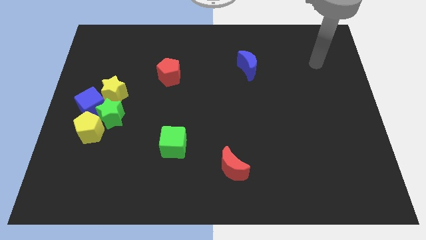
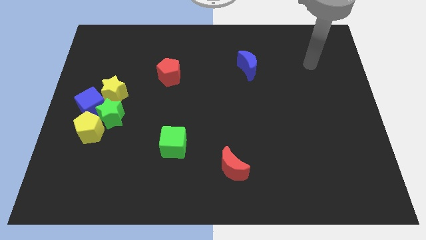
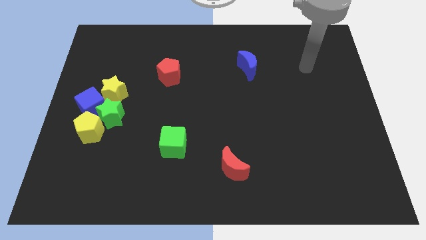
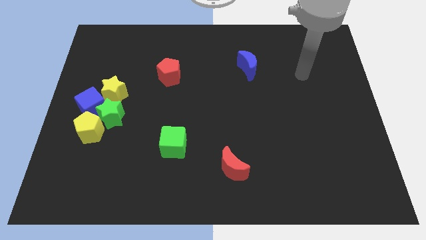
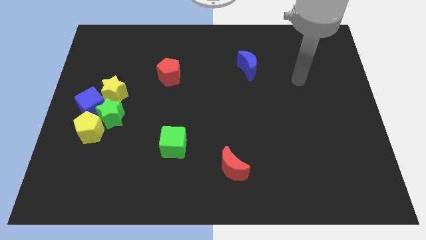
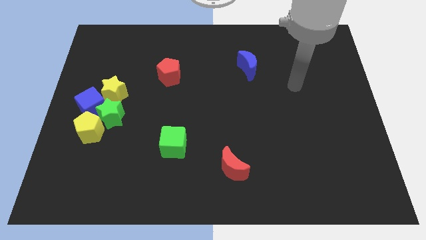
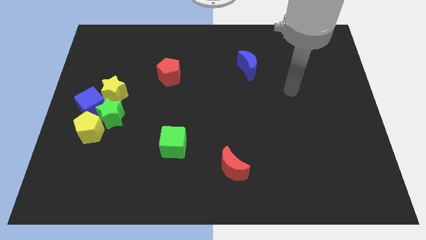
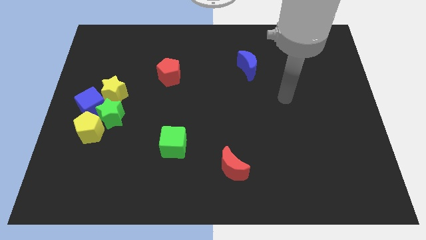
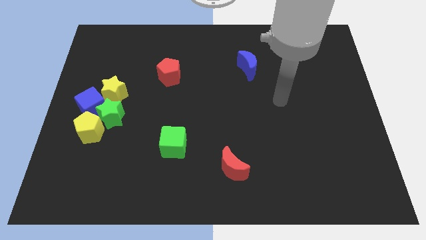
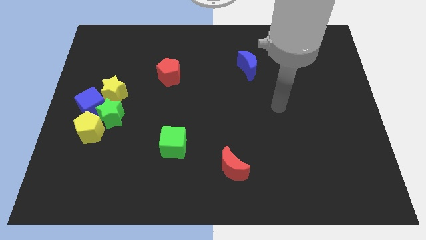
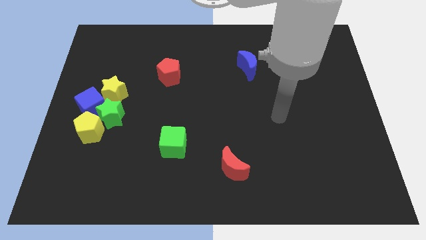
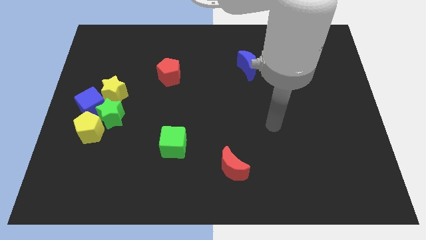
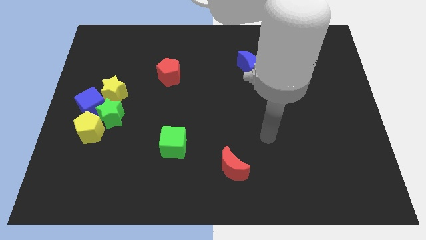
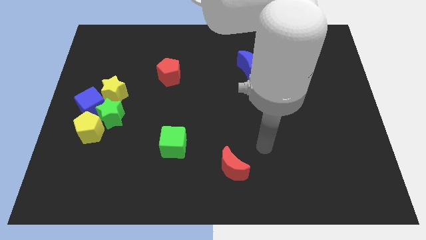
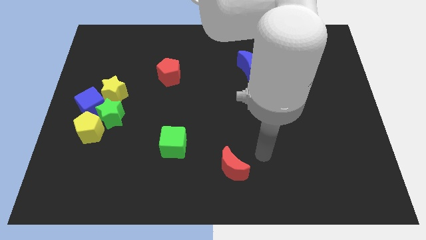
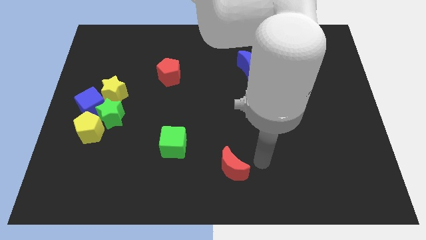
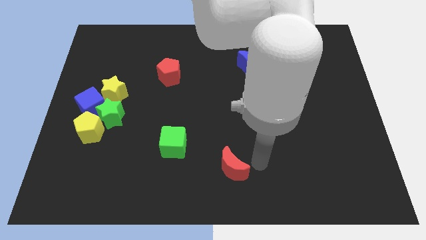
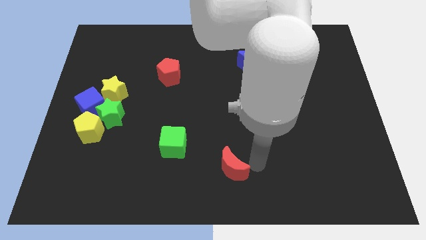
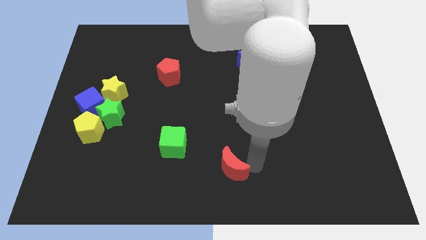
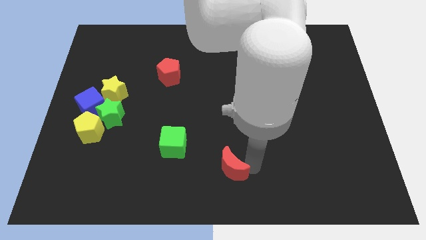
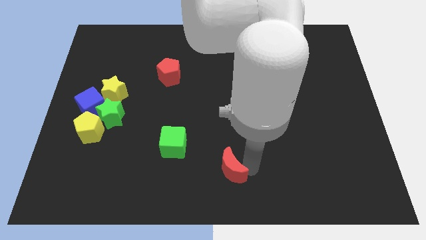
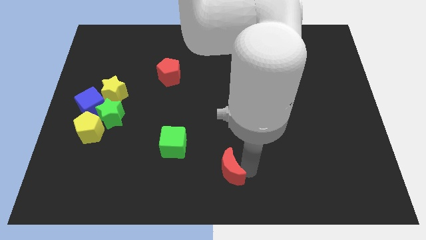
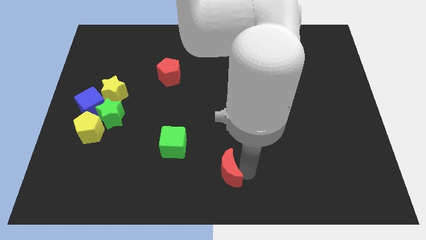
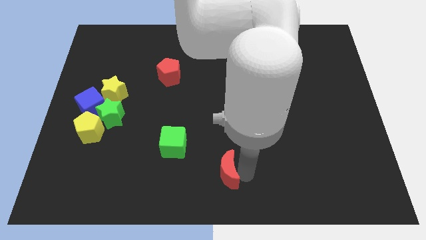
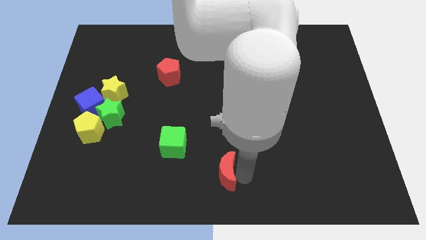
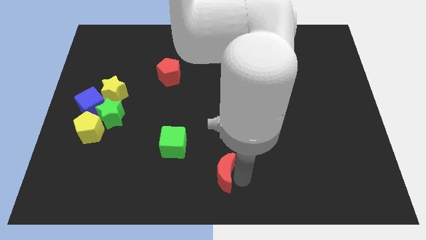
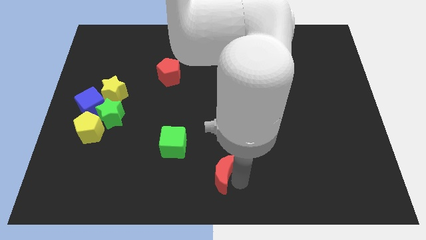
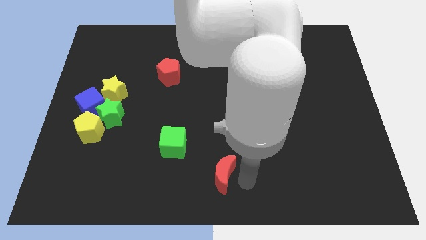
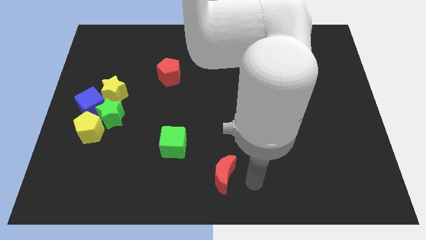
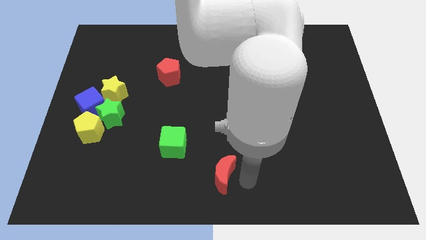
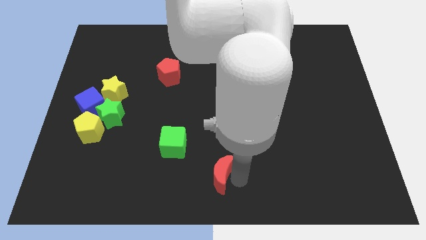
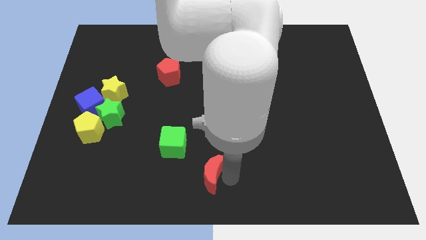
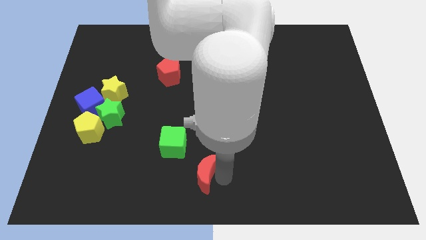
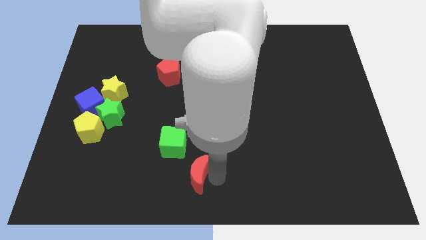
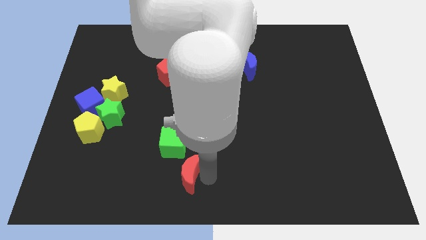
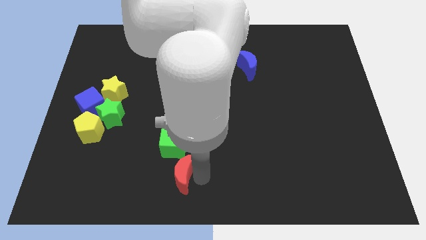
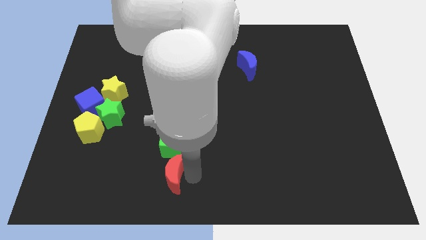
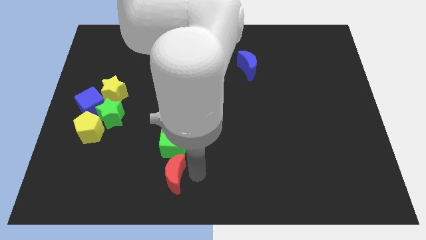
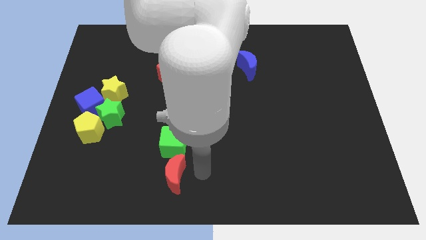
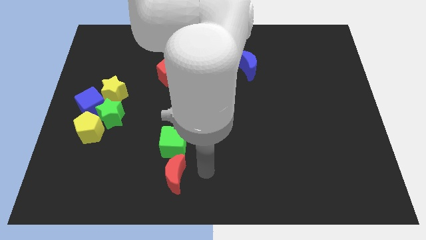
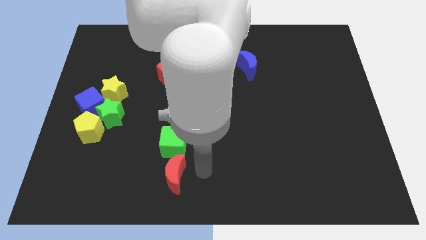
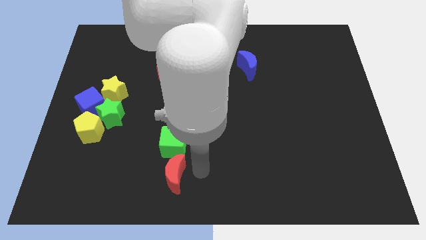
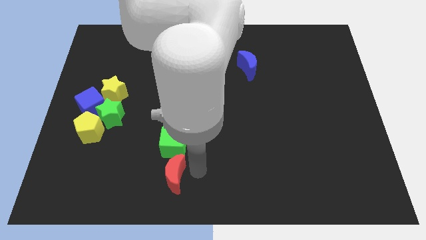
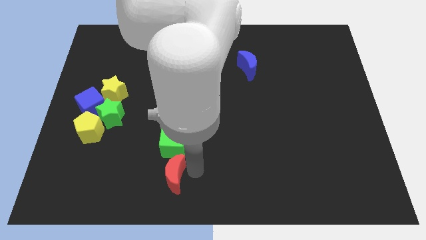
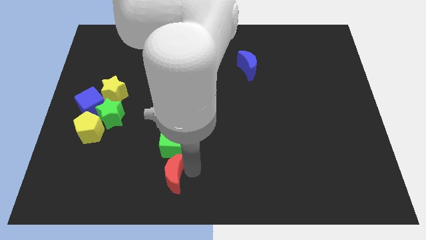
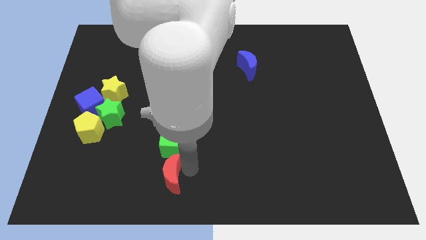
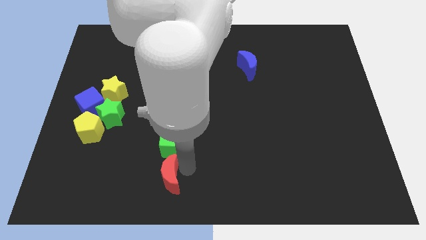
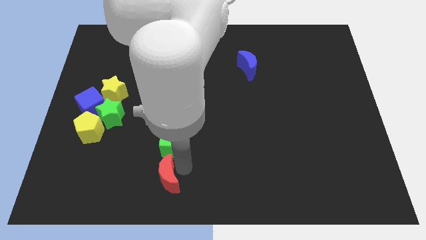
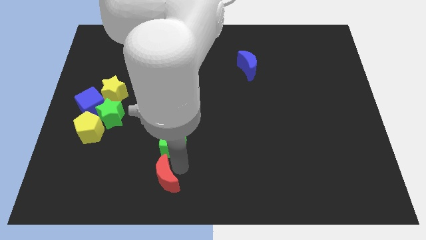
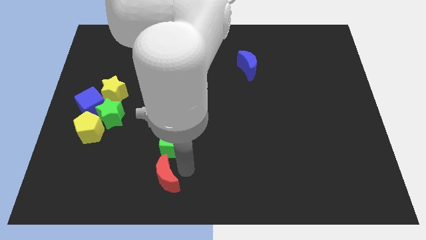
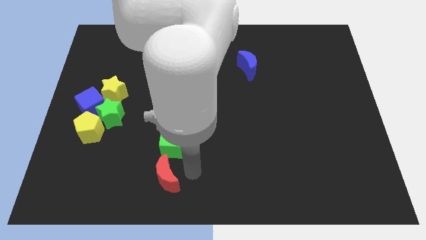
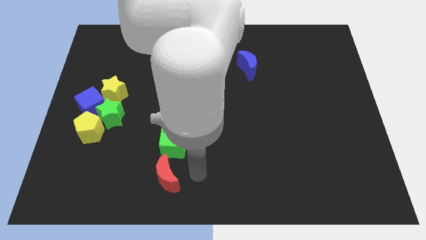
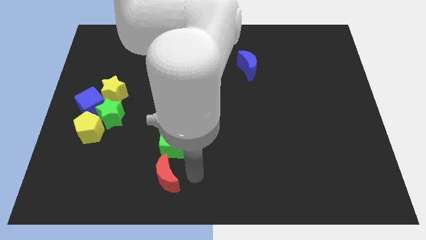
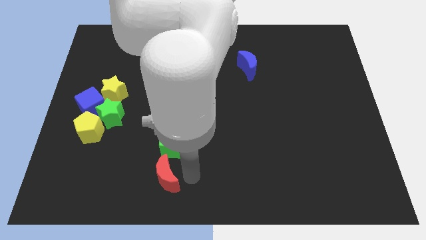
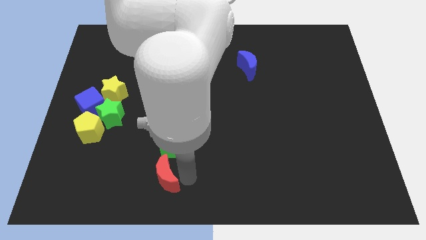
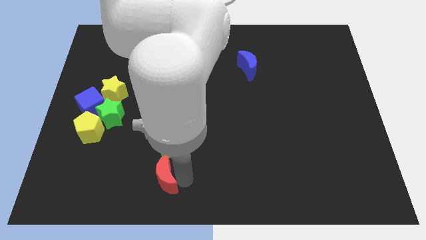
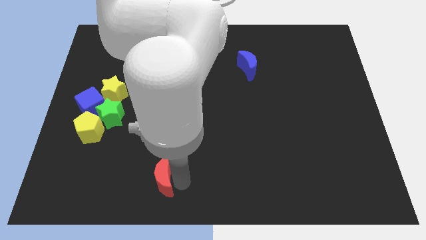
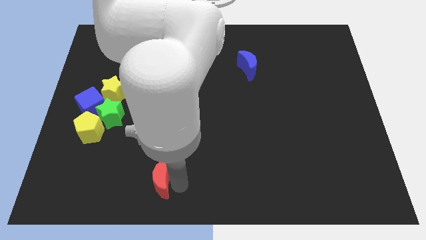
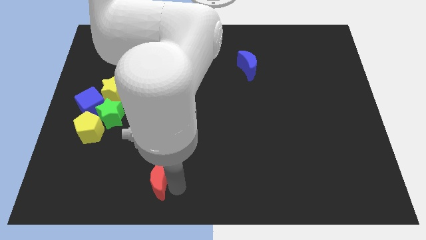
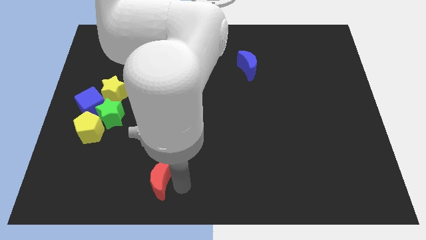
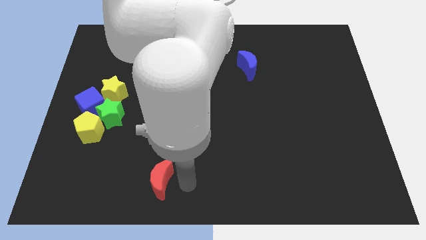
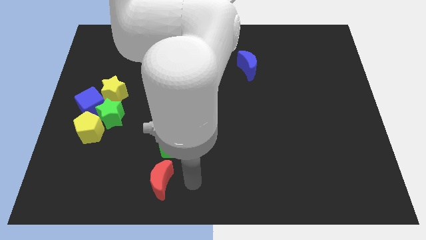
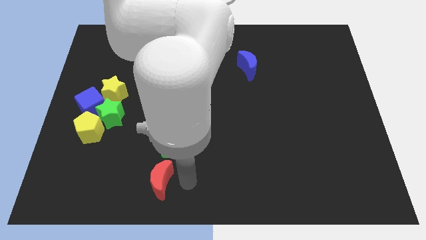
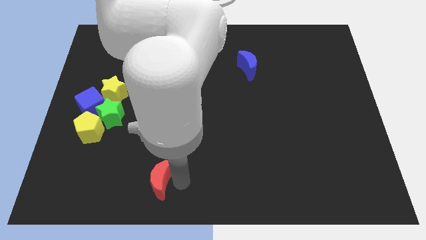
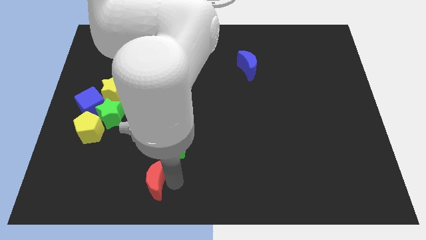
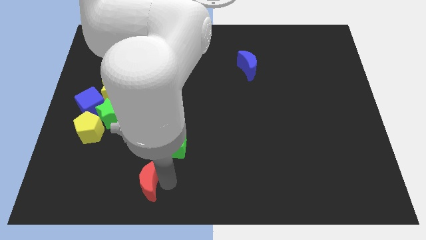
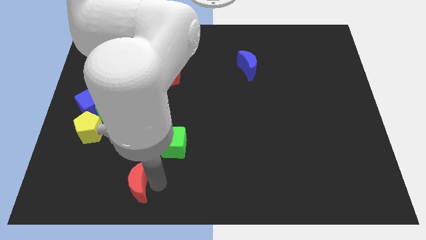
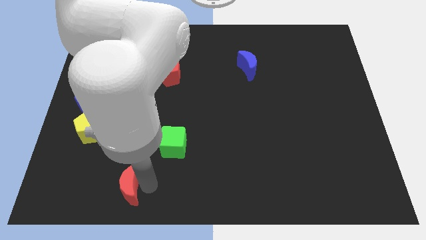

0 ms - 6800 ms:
move the red moon left

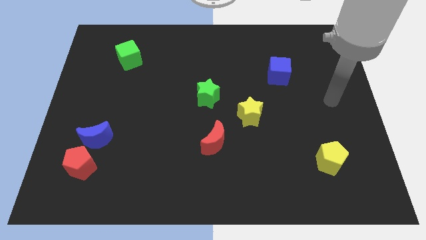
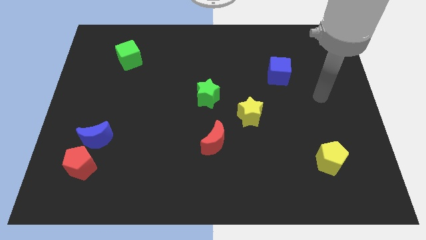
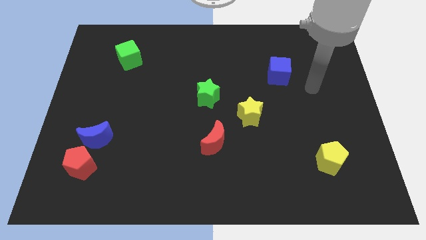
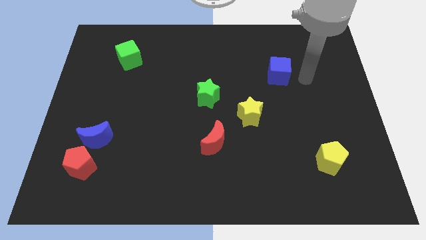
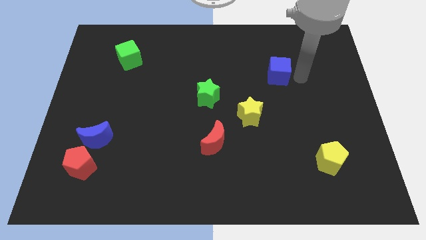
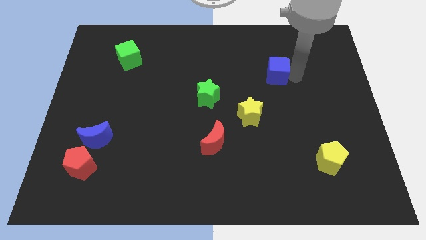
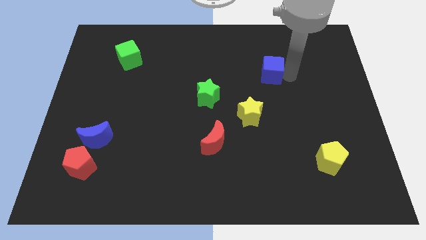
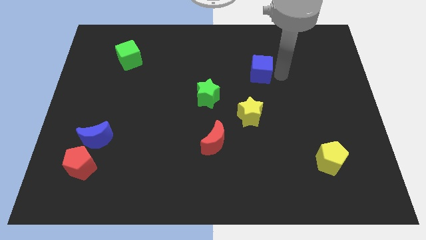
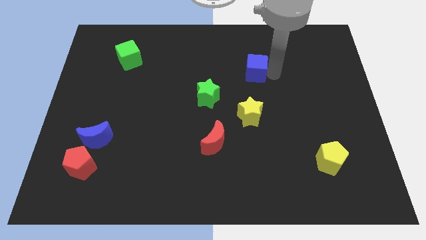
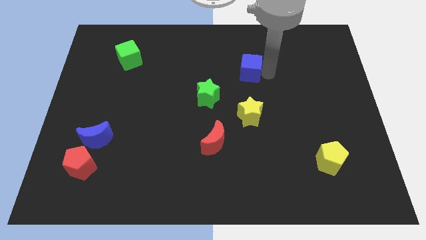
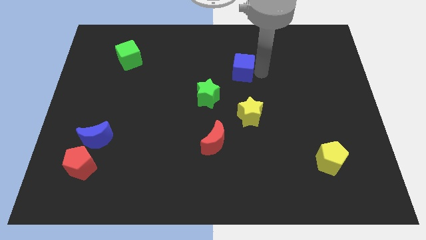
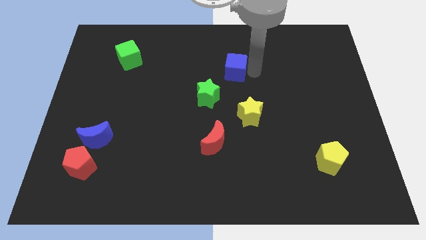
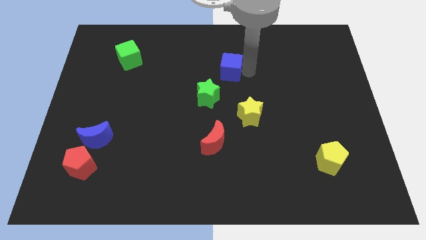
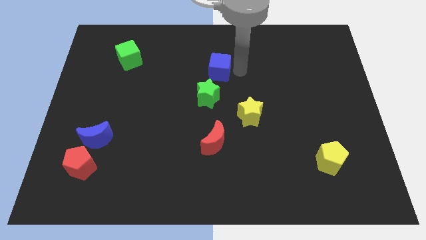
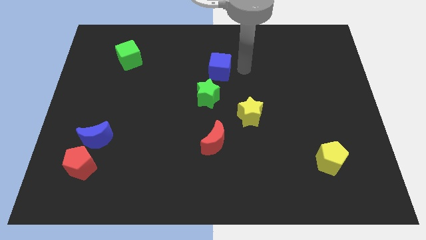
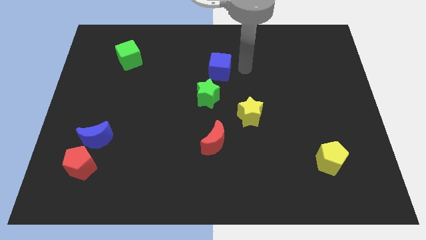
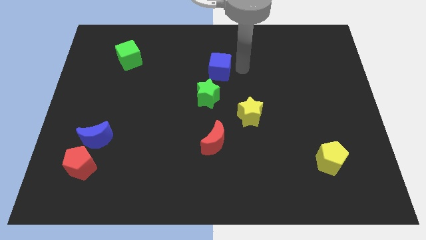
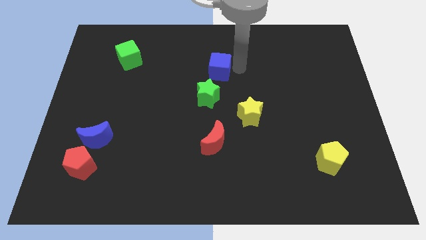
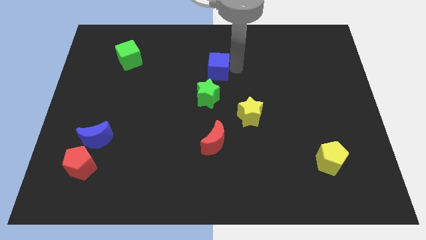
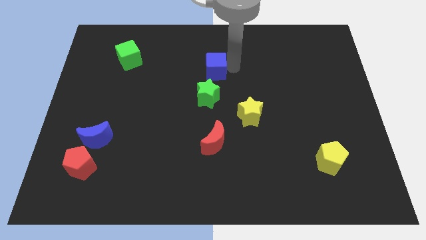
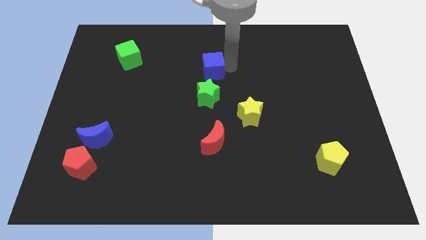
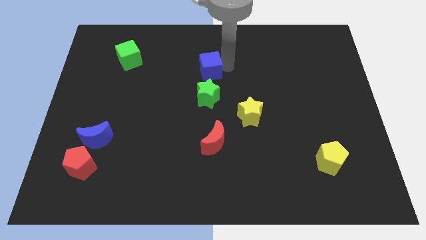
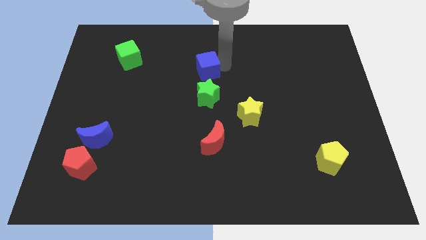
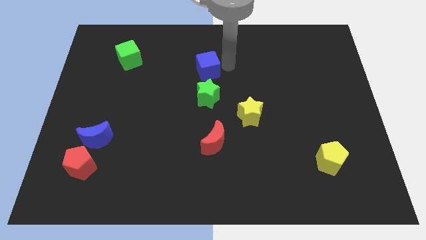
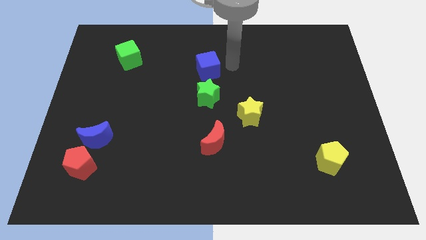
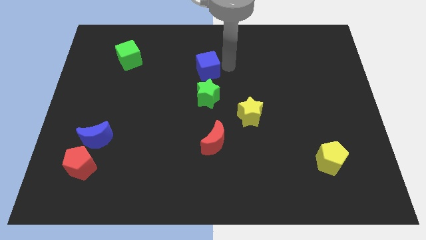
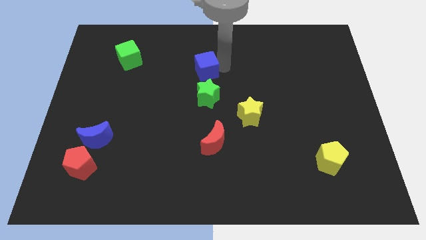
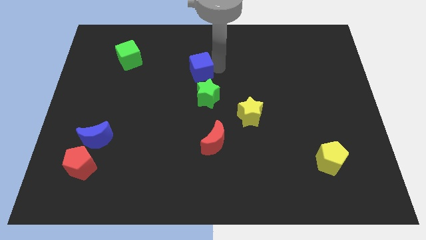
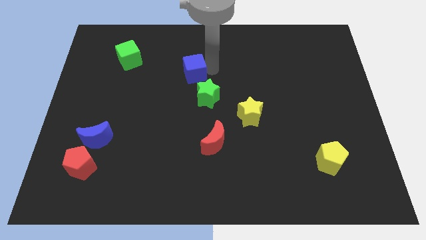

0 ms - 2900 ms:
slide the blue cube left
